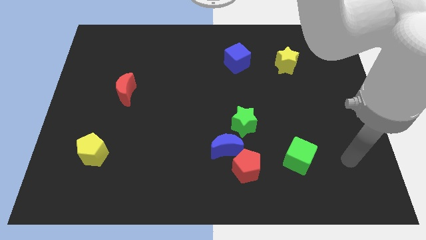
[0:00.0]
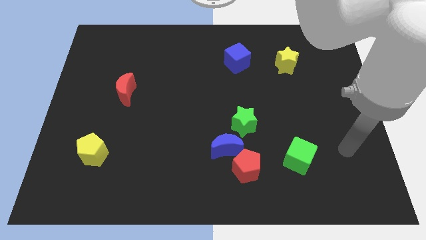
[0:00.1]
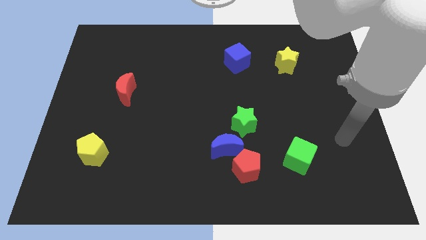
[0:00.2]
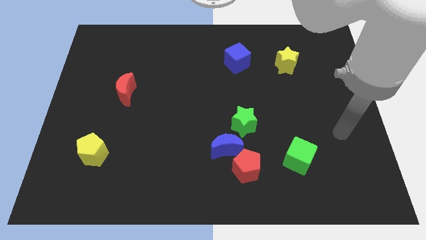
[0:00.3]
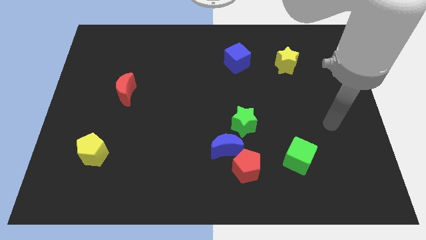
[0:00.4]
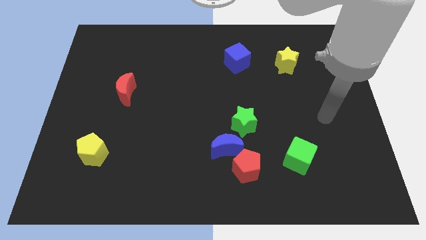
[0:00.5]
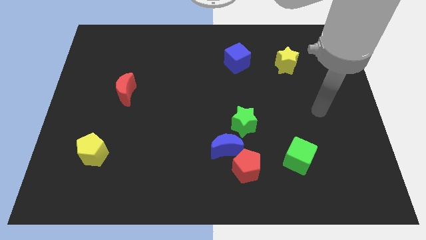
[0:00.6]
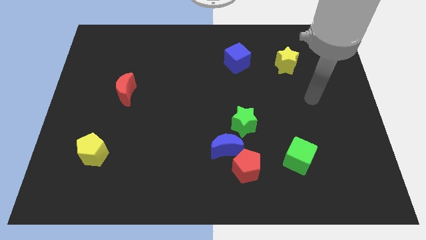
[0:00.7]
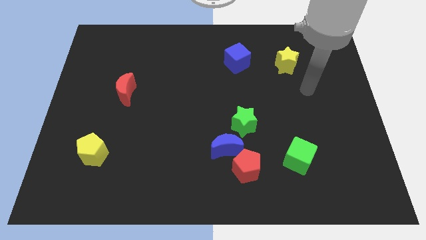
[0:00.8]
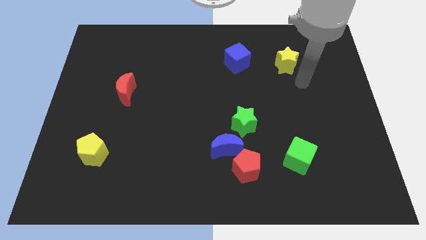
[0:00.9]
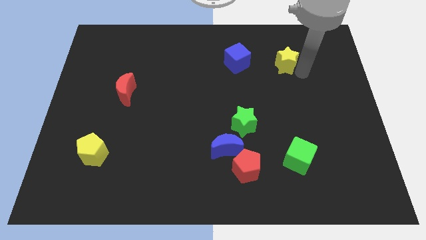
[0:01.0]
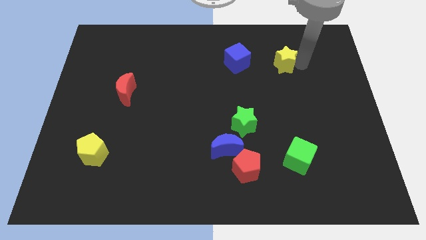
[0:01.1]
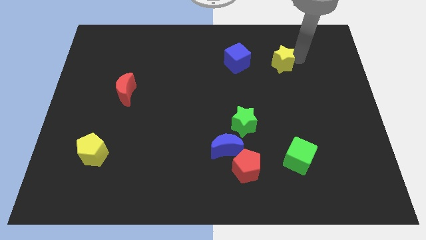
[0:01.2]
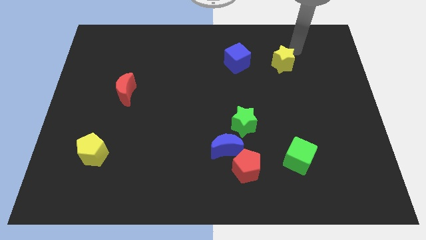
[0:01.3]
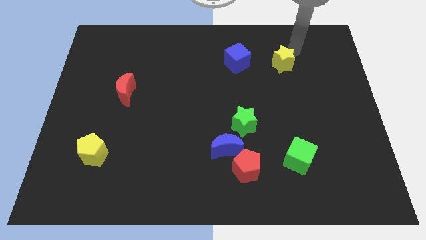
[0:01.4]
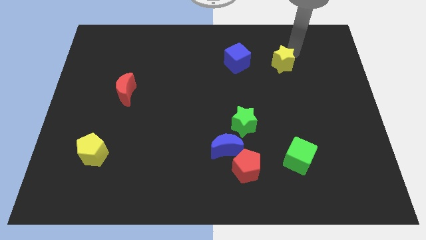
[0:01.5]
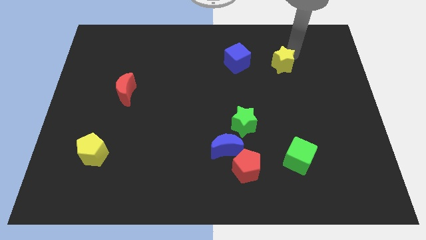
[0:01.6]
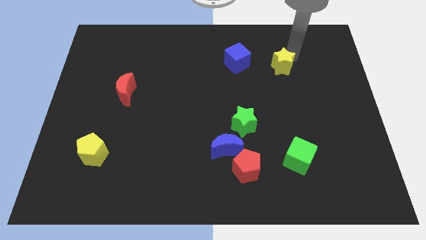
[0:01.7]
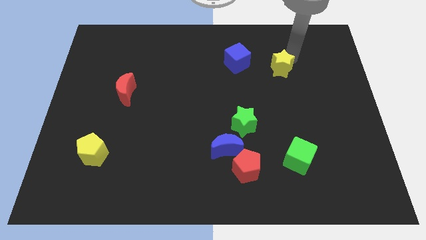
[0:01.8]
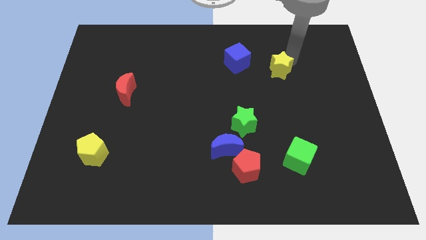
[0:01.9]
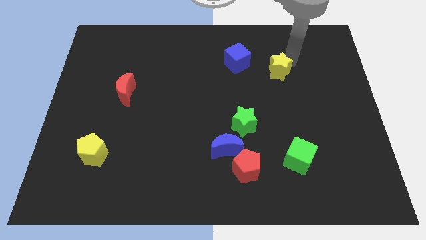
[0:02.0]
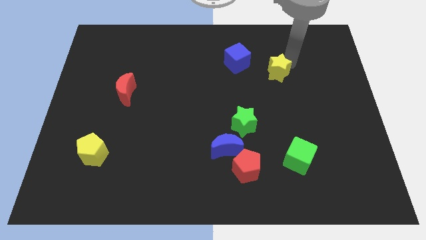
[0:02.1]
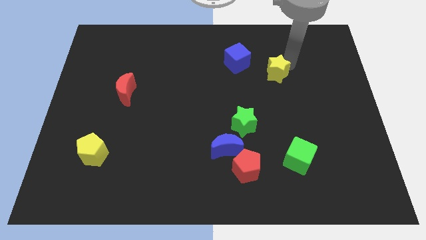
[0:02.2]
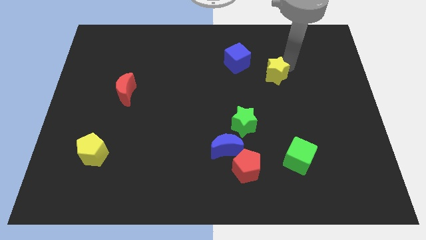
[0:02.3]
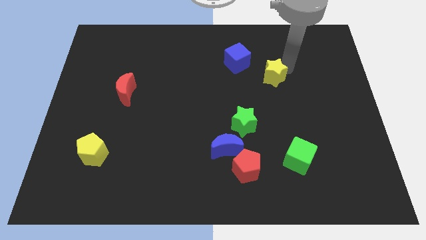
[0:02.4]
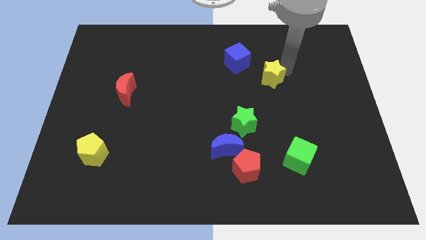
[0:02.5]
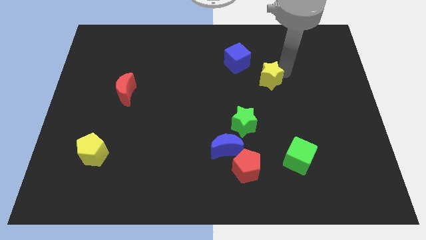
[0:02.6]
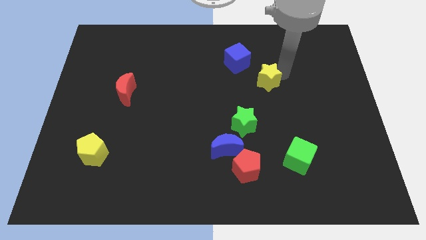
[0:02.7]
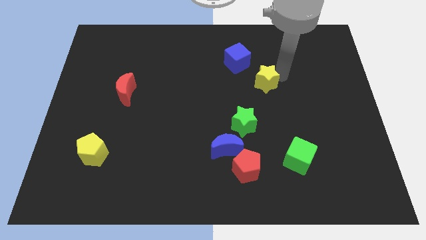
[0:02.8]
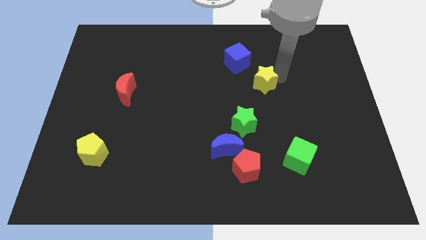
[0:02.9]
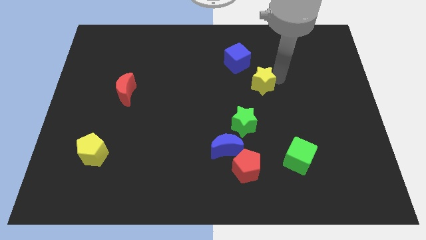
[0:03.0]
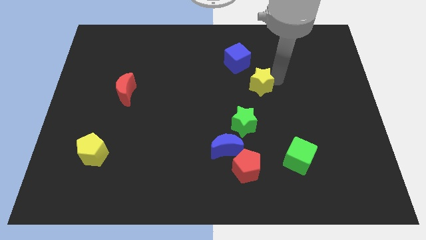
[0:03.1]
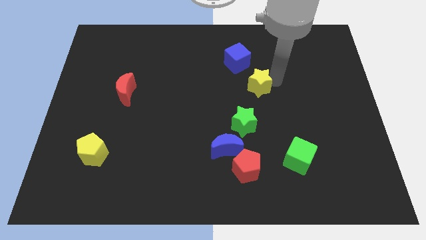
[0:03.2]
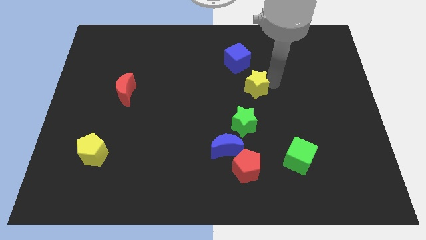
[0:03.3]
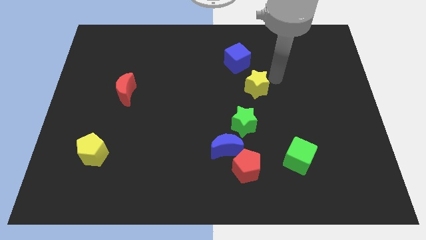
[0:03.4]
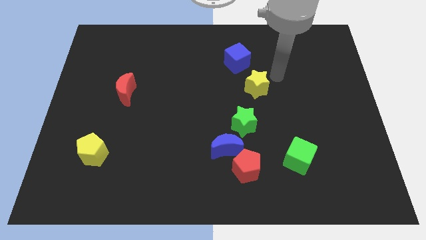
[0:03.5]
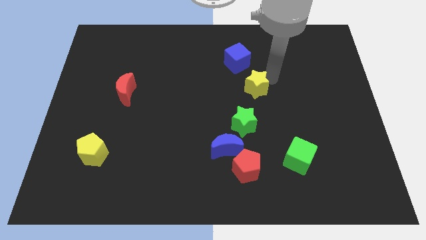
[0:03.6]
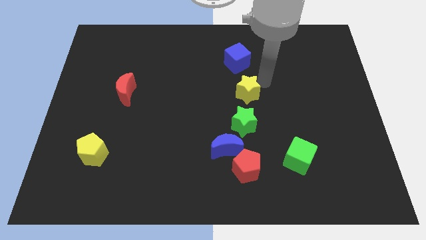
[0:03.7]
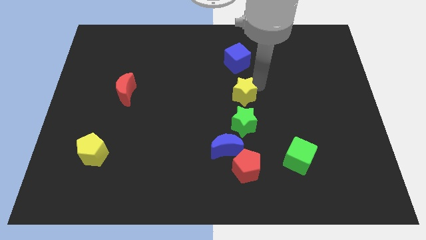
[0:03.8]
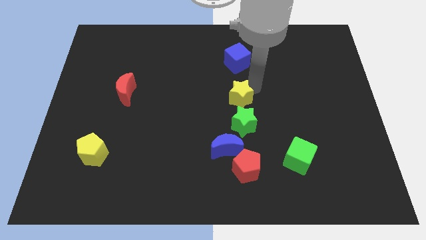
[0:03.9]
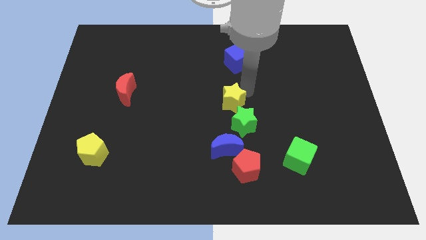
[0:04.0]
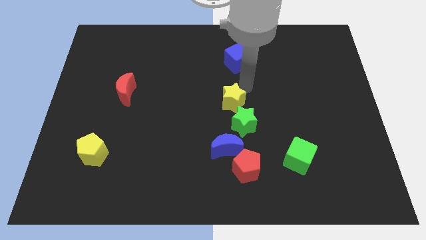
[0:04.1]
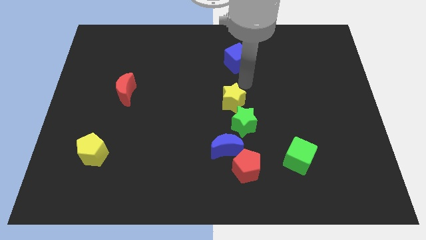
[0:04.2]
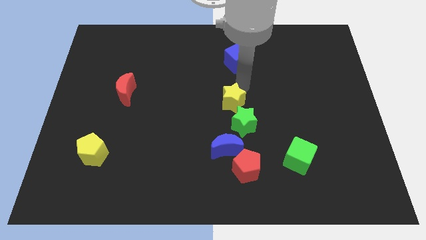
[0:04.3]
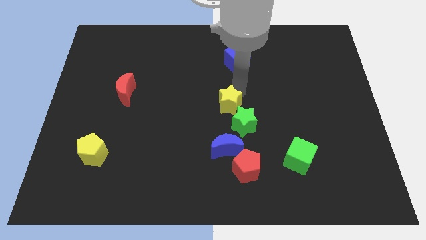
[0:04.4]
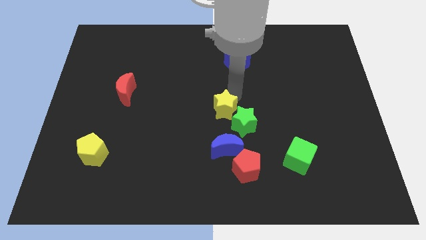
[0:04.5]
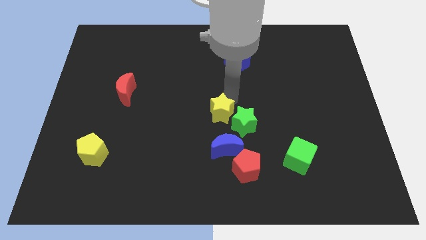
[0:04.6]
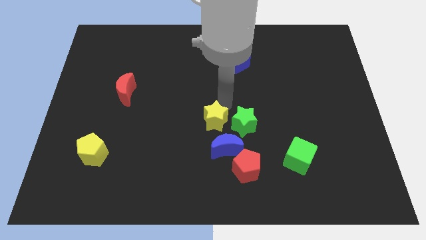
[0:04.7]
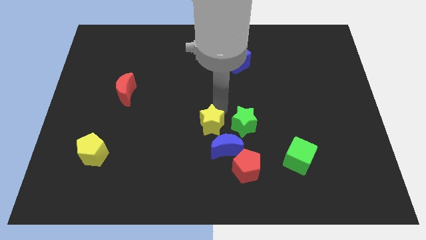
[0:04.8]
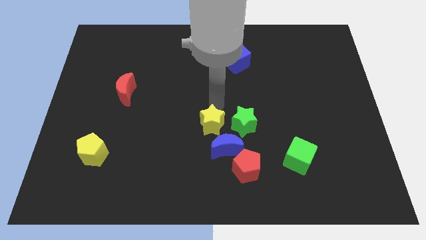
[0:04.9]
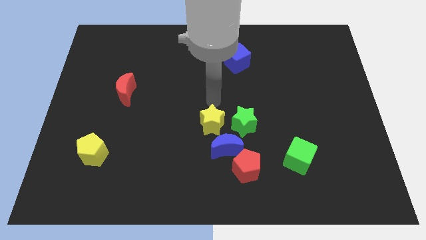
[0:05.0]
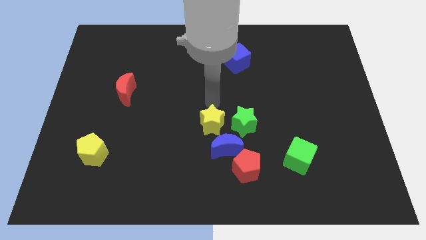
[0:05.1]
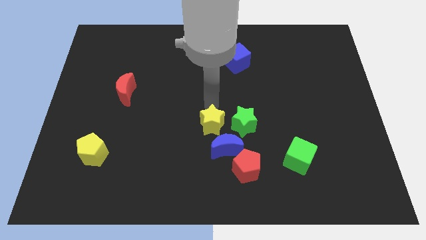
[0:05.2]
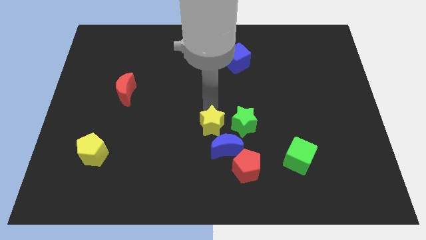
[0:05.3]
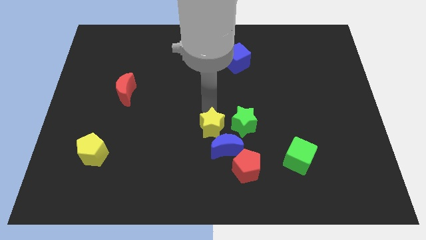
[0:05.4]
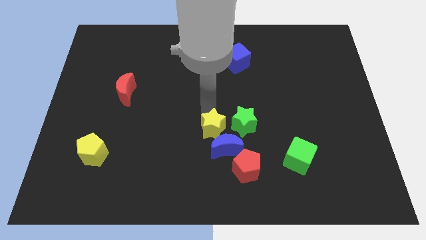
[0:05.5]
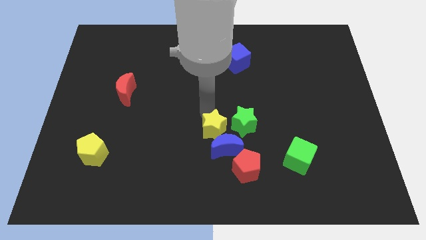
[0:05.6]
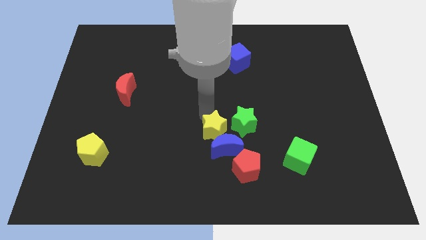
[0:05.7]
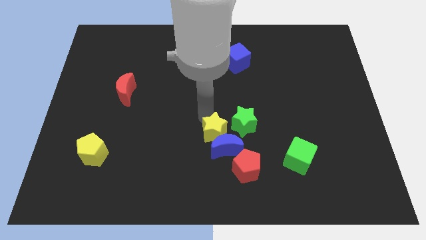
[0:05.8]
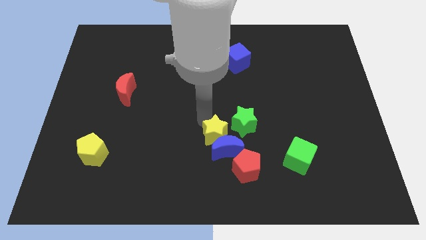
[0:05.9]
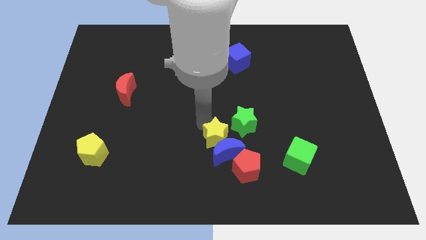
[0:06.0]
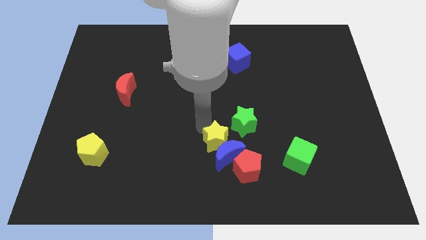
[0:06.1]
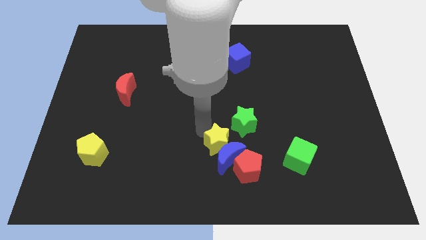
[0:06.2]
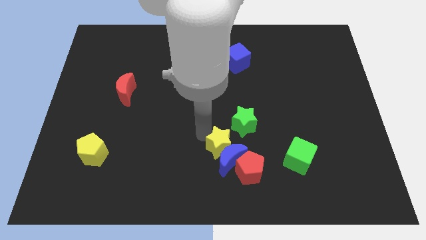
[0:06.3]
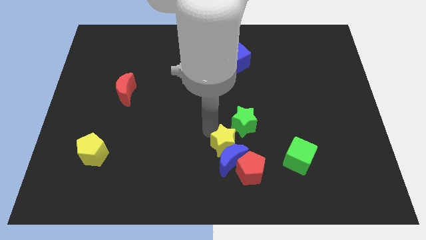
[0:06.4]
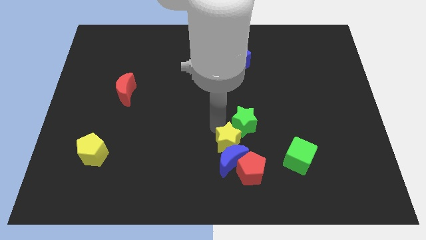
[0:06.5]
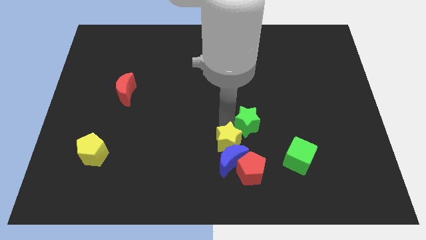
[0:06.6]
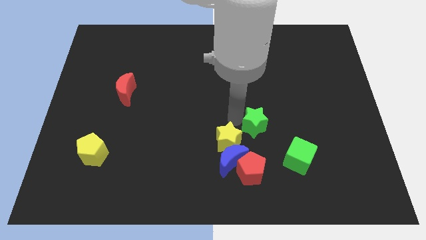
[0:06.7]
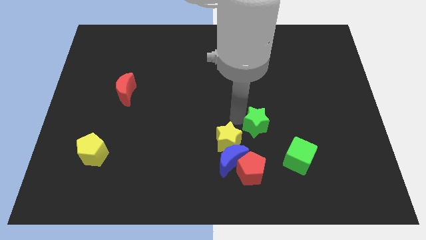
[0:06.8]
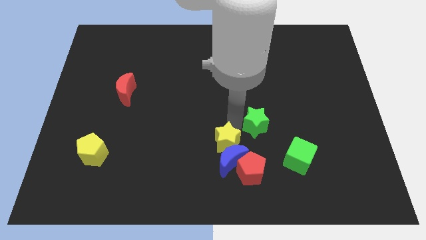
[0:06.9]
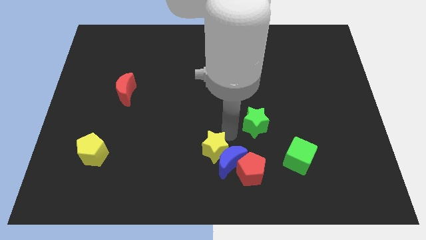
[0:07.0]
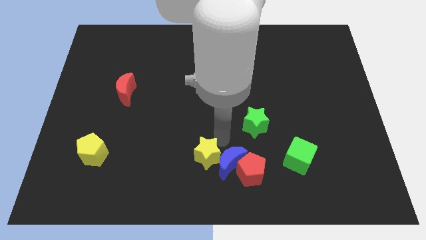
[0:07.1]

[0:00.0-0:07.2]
move the yellow star to the bottom left of the blue moon
